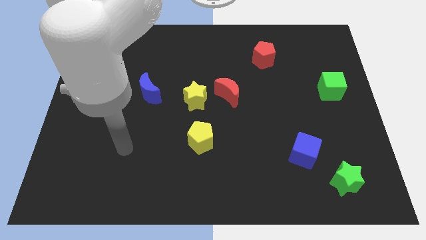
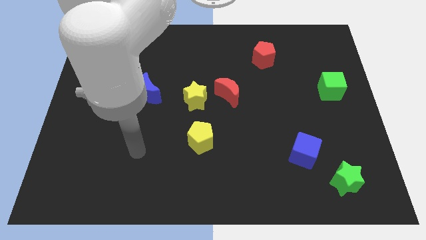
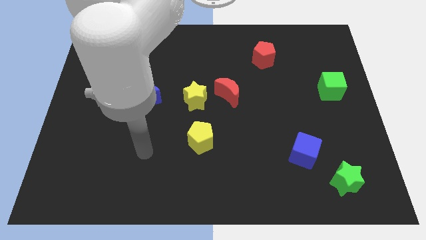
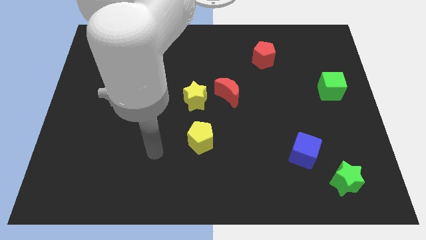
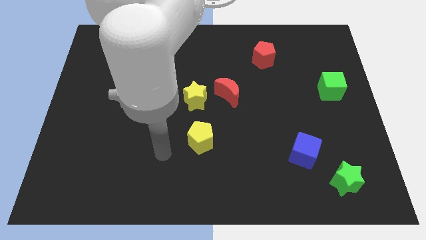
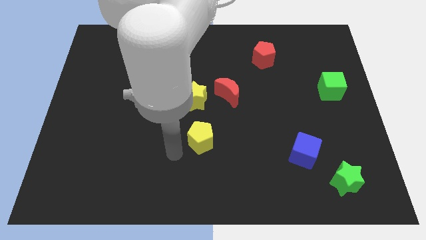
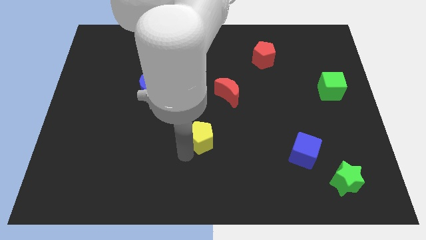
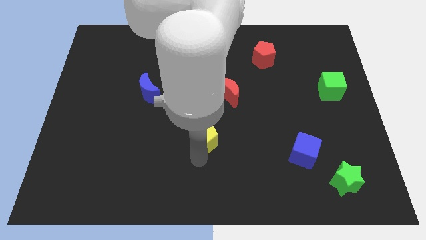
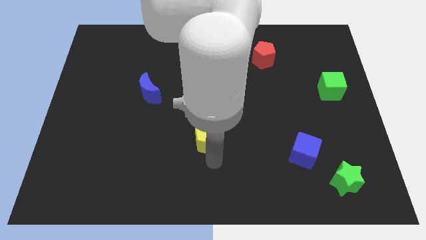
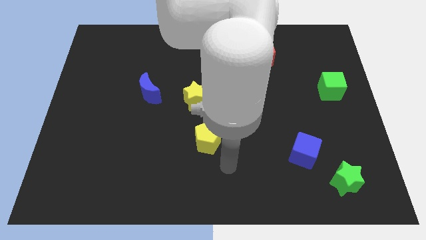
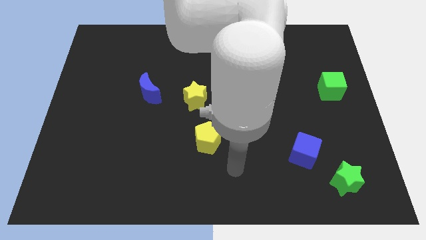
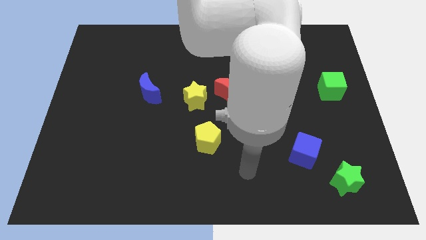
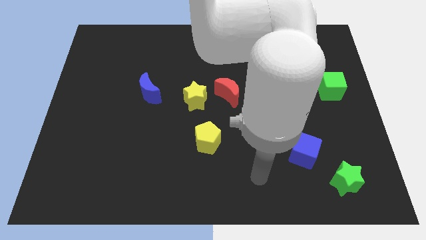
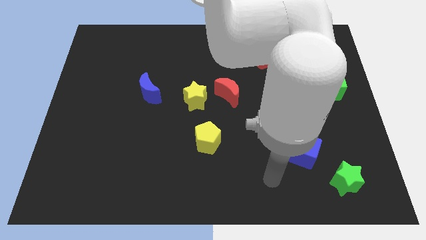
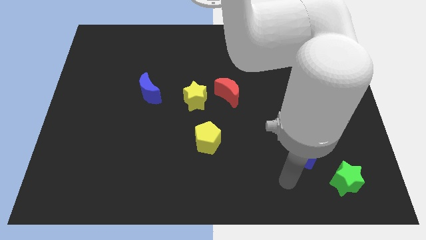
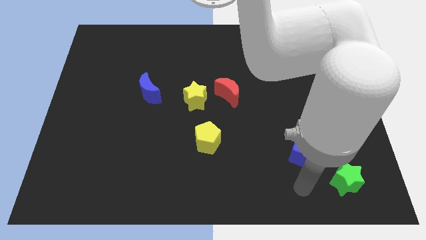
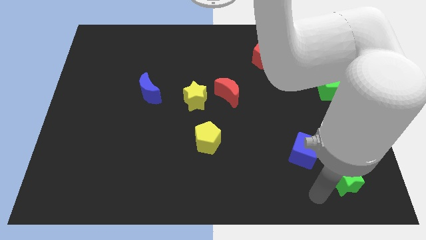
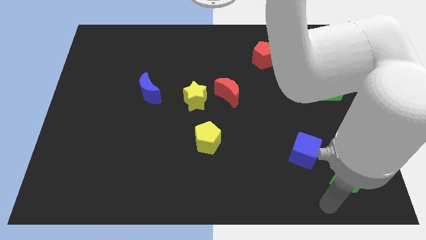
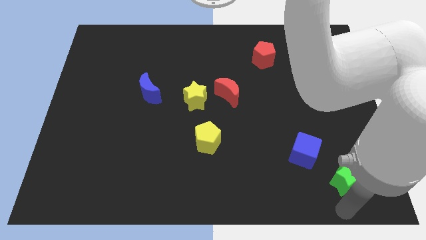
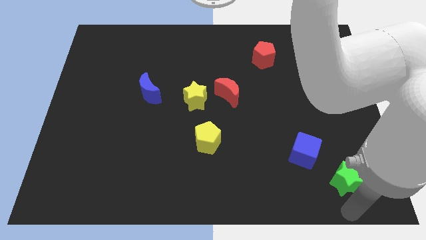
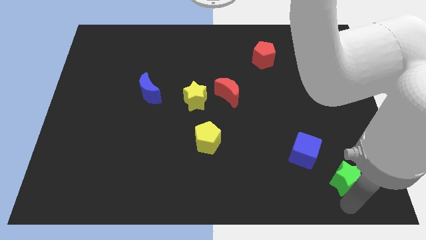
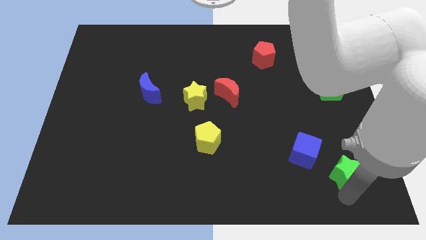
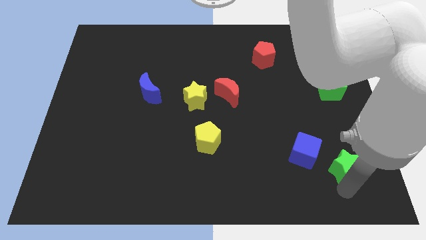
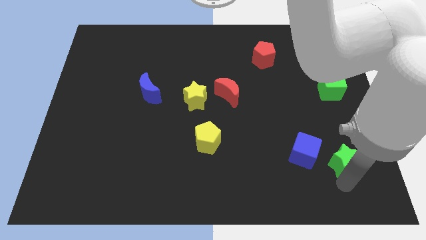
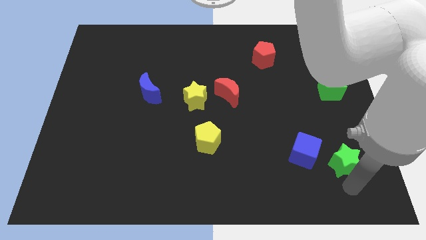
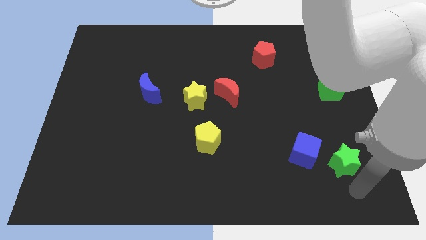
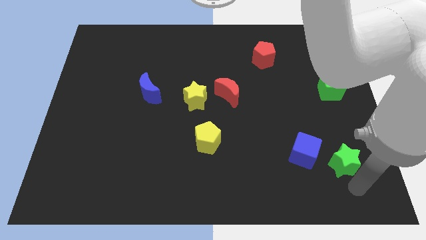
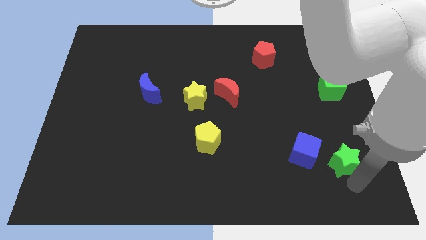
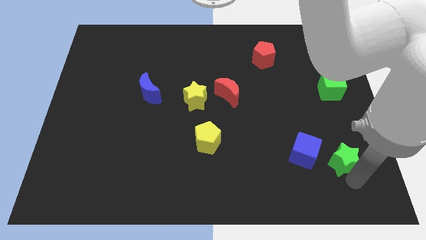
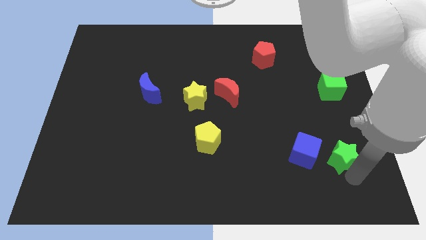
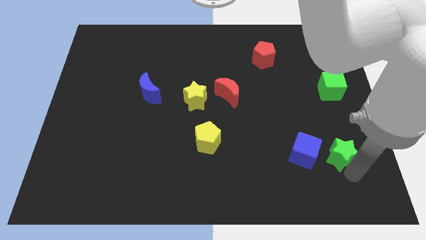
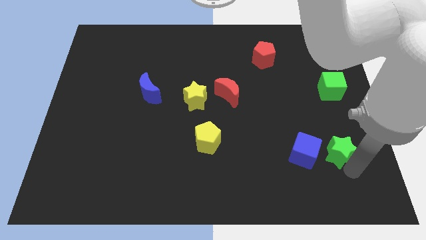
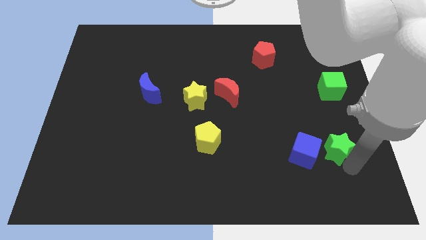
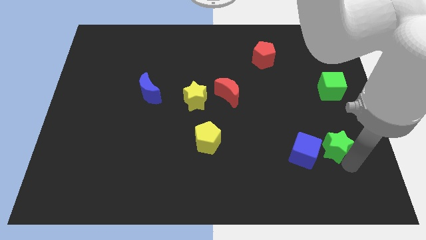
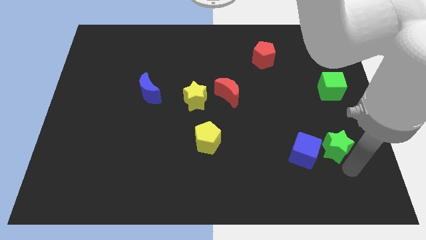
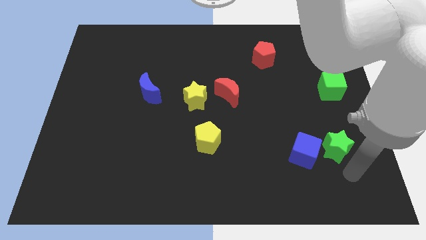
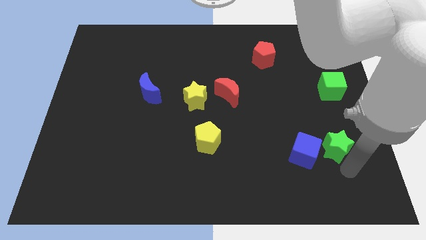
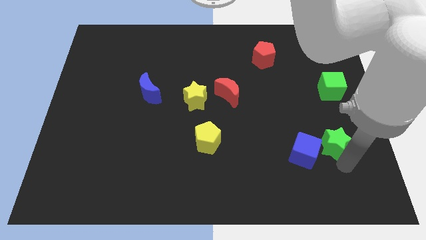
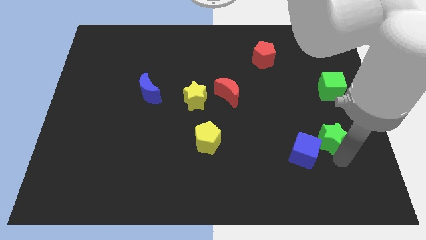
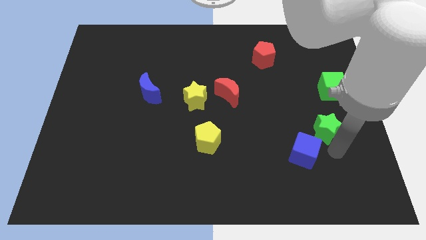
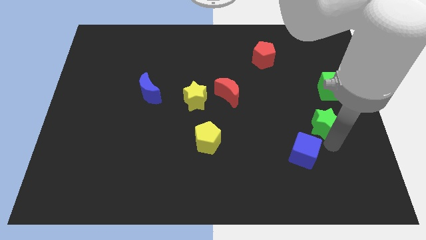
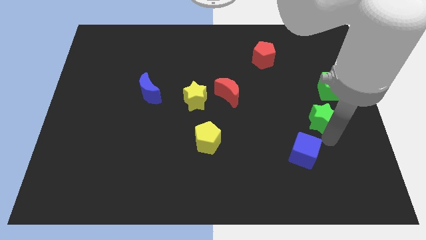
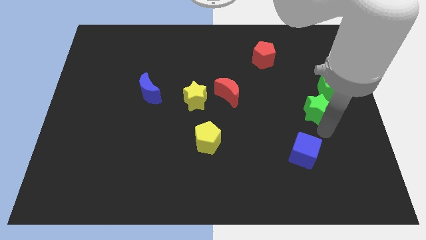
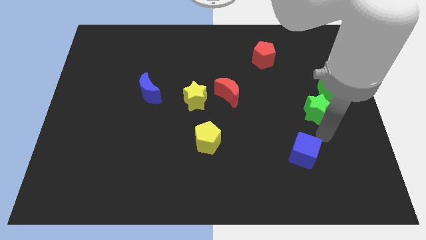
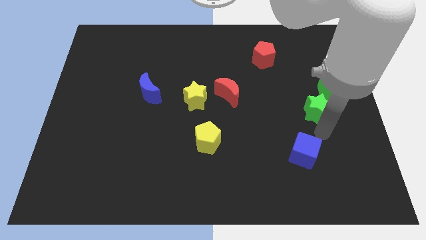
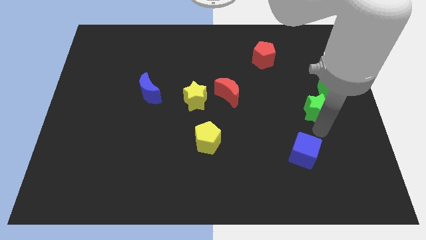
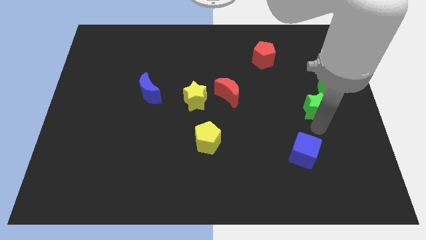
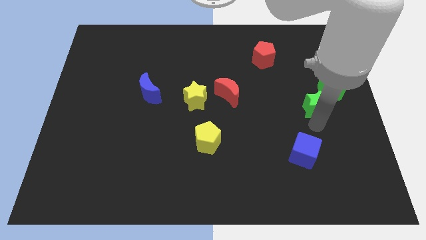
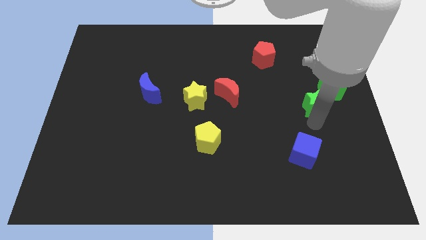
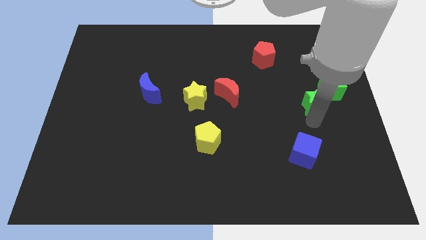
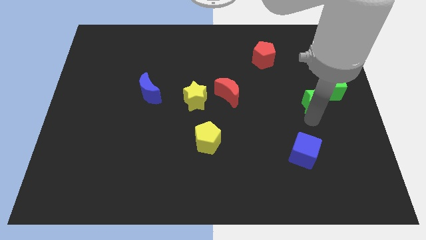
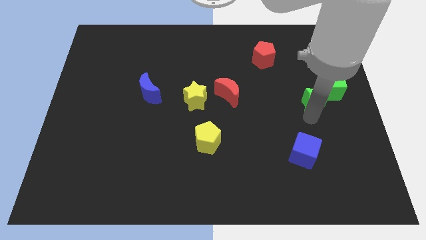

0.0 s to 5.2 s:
slide the green star up

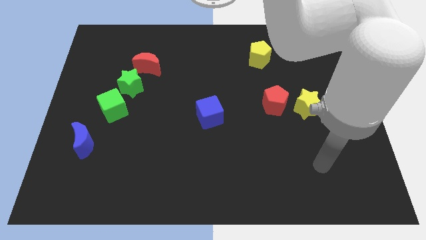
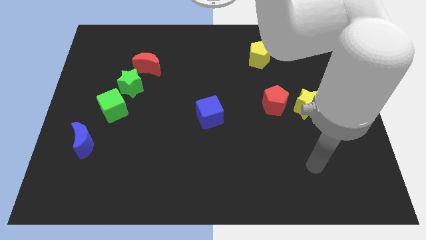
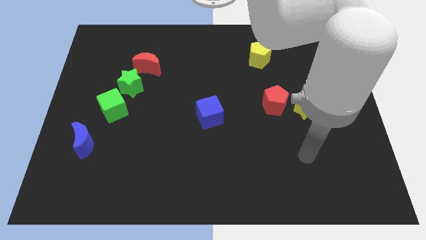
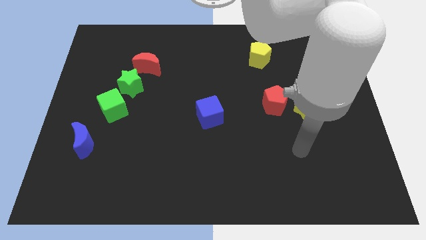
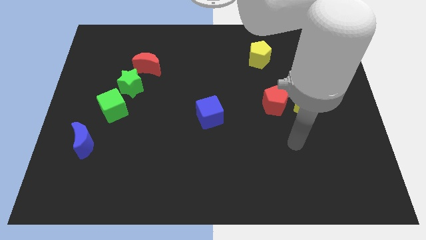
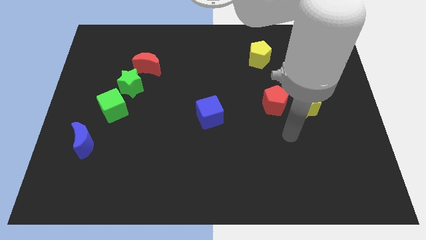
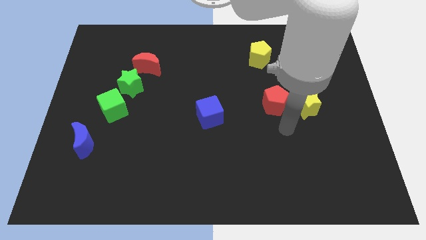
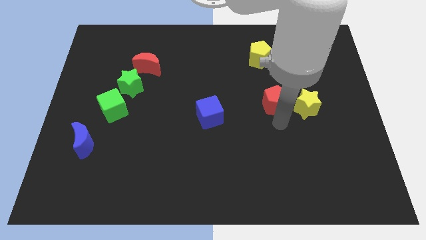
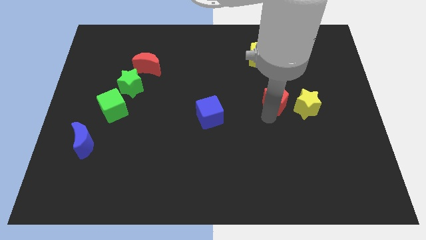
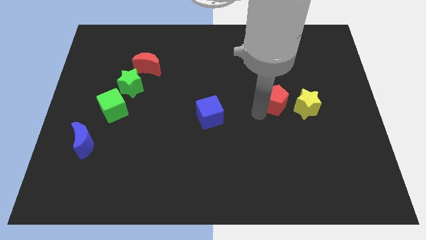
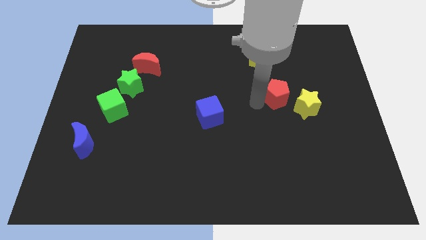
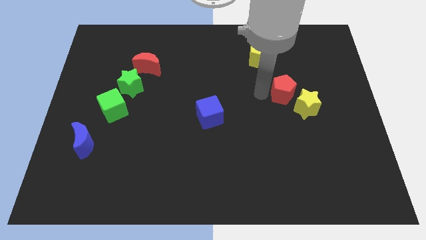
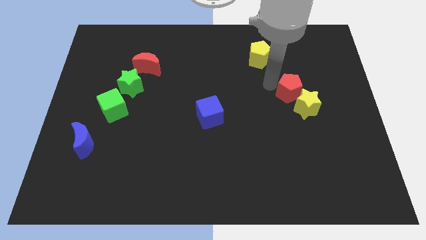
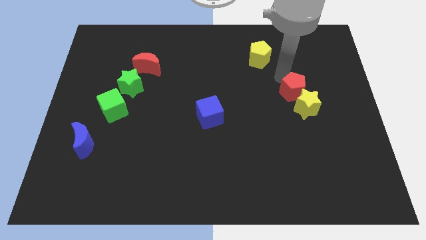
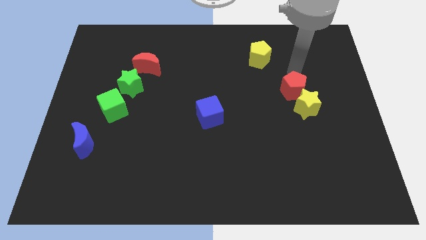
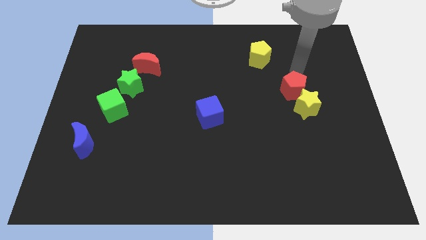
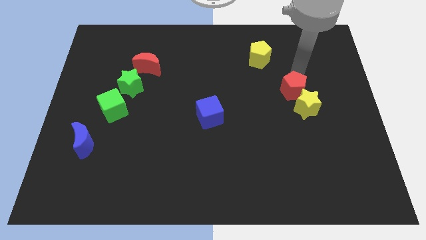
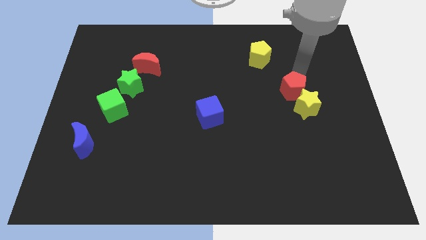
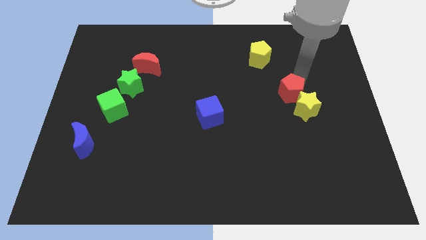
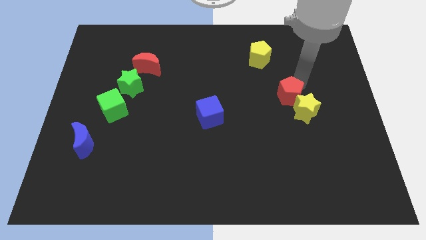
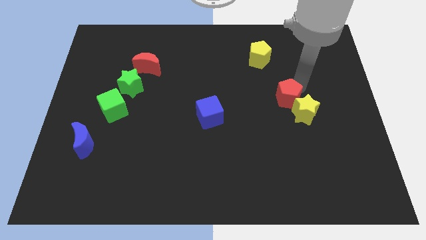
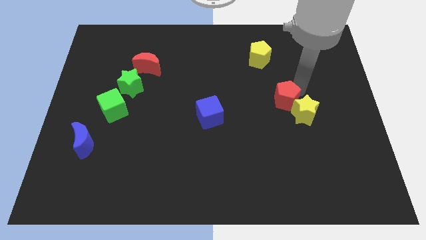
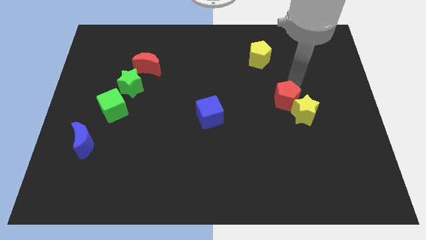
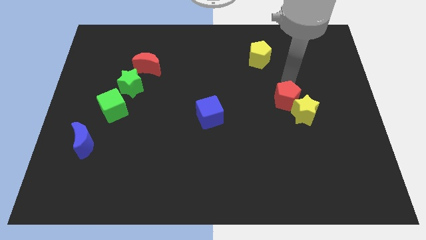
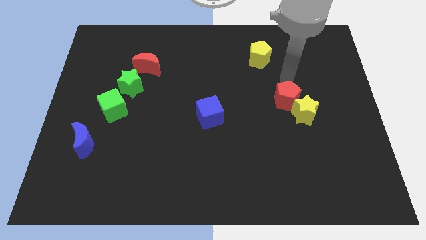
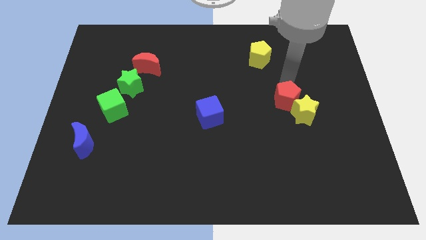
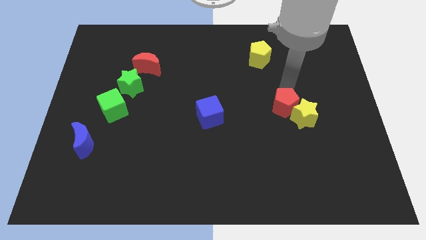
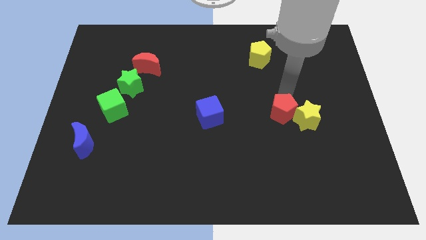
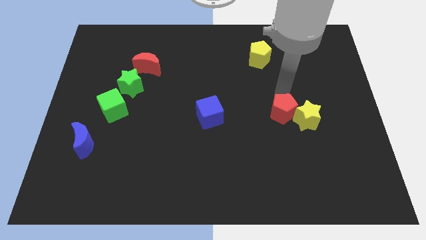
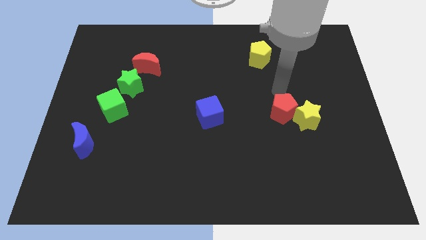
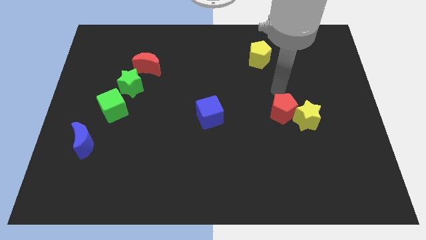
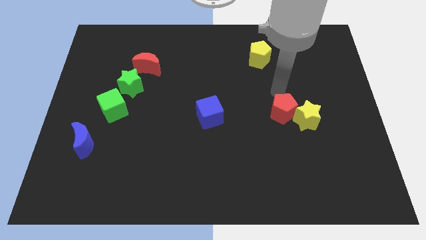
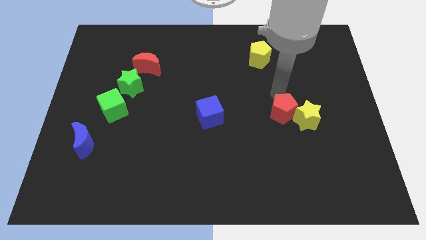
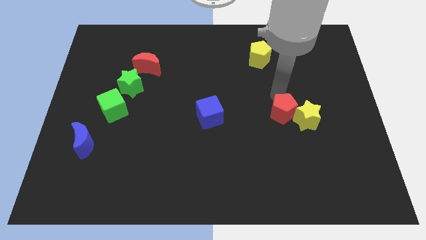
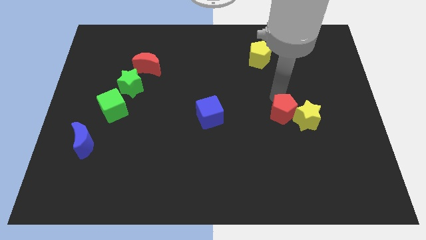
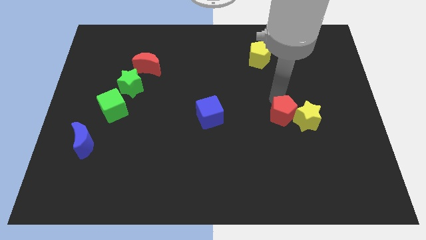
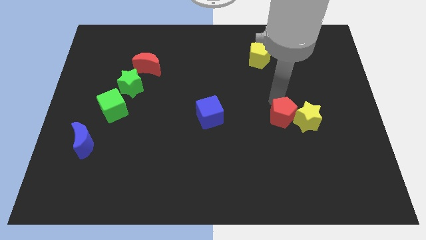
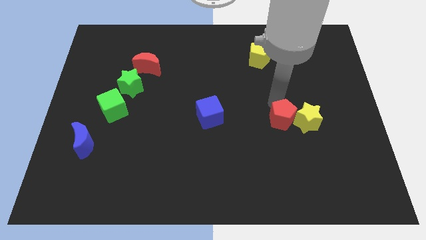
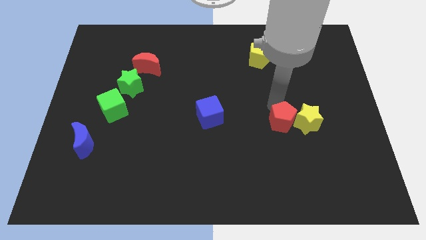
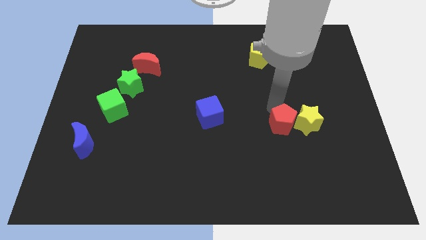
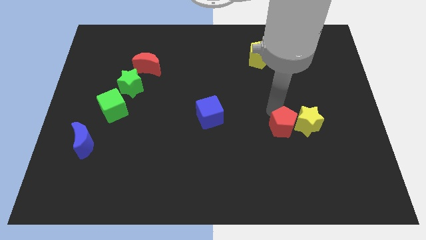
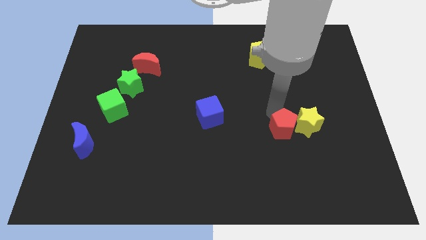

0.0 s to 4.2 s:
slightly move the red pentagon downwards
